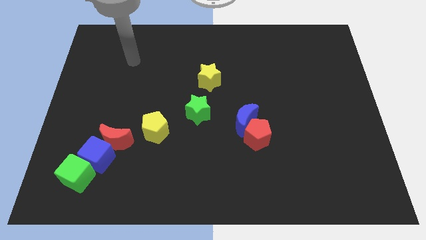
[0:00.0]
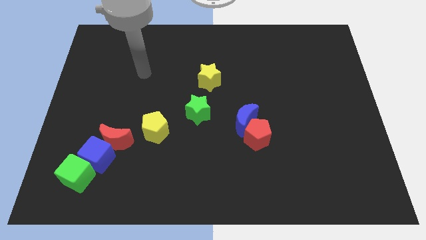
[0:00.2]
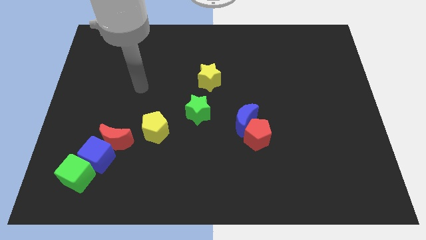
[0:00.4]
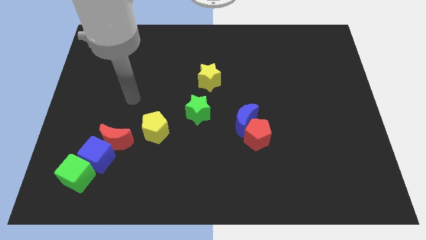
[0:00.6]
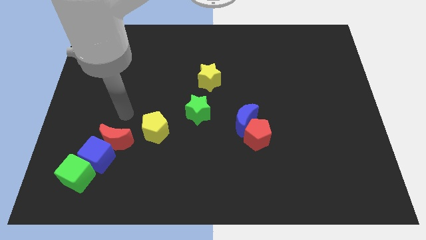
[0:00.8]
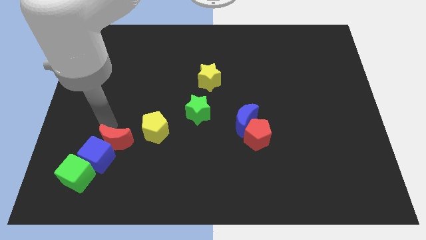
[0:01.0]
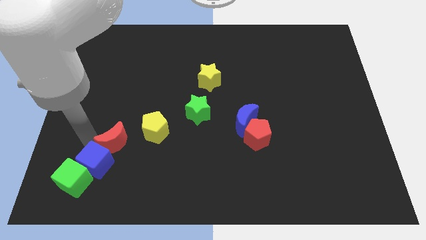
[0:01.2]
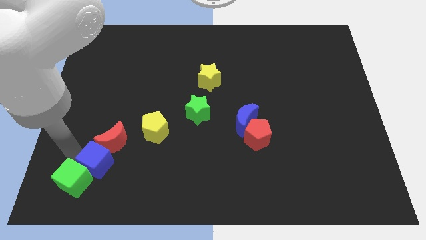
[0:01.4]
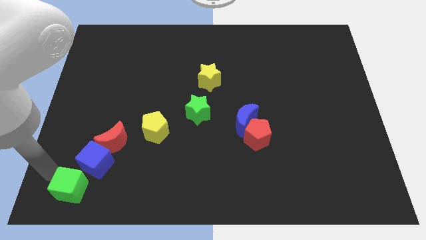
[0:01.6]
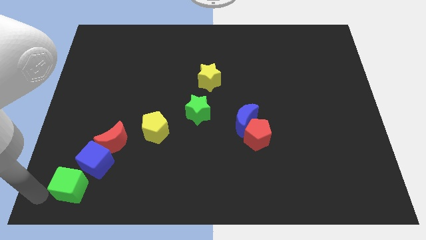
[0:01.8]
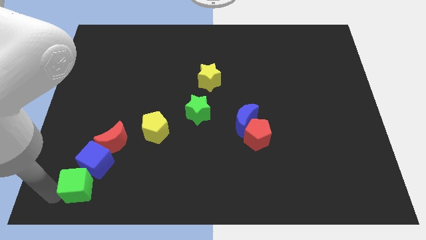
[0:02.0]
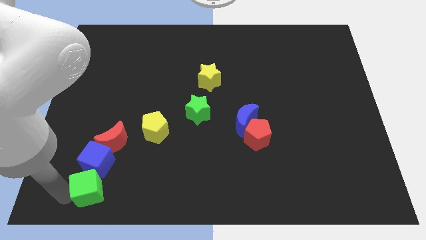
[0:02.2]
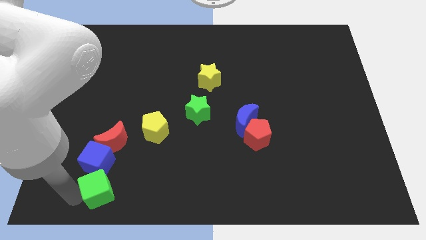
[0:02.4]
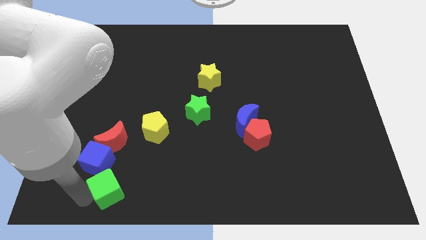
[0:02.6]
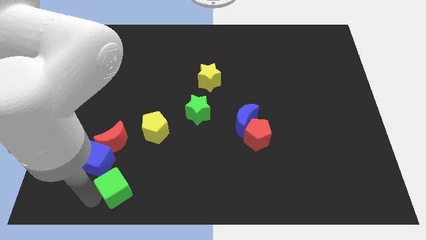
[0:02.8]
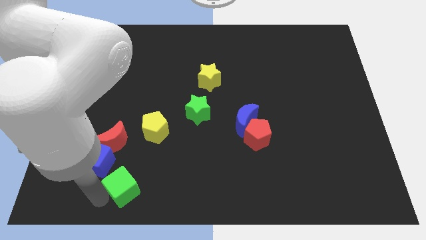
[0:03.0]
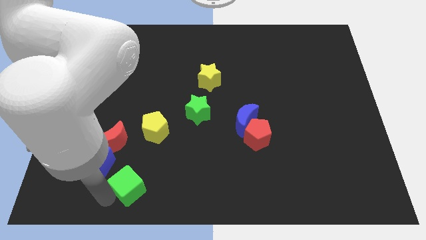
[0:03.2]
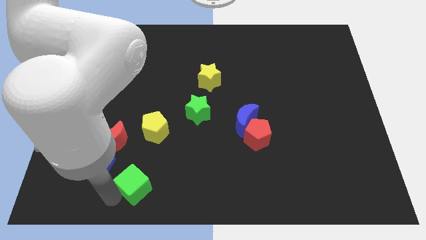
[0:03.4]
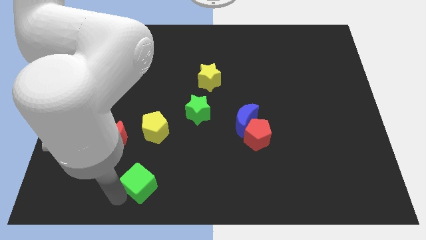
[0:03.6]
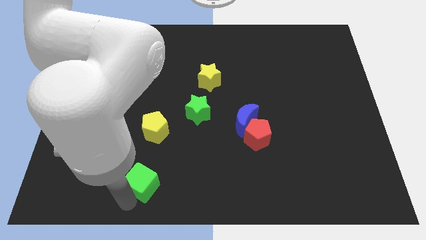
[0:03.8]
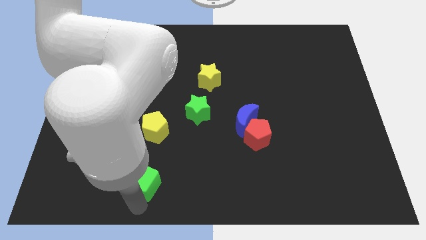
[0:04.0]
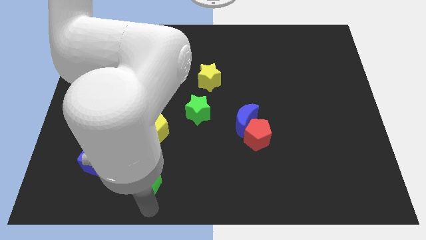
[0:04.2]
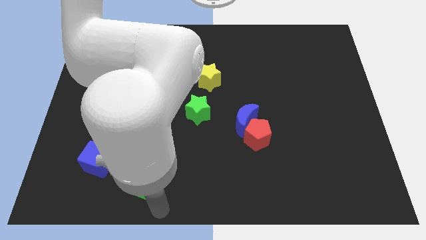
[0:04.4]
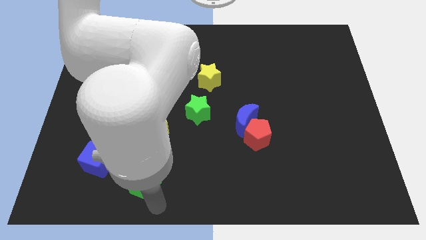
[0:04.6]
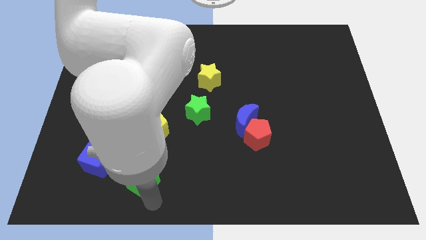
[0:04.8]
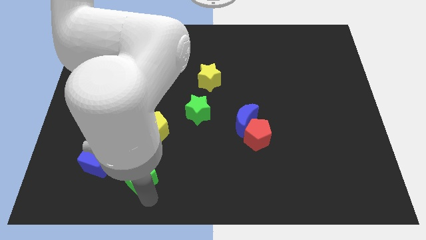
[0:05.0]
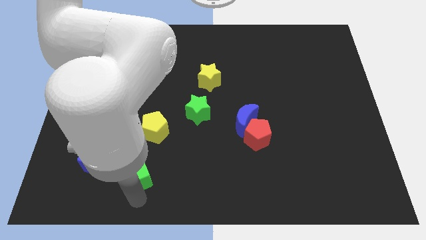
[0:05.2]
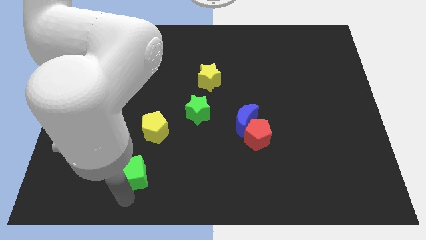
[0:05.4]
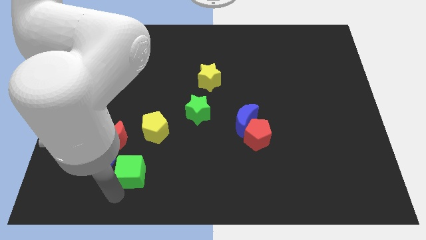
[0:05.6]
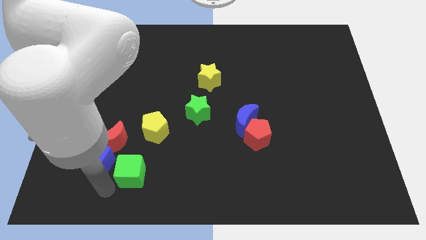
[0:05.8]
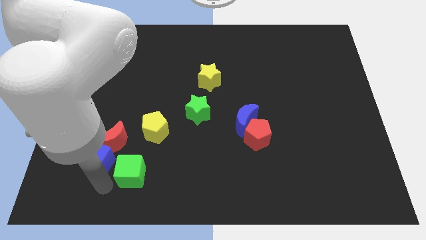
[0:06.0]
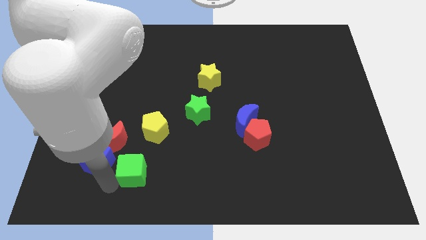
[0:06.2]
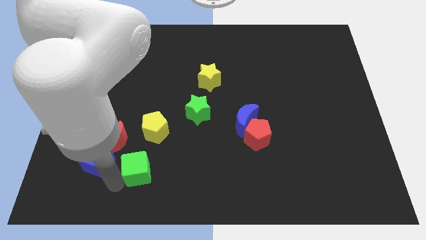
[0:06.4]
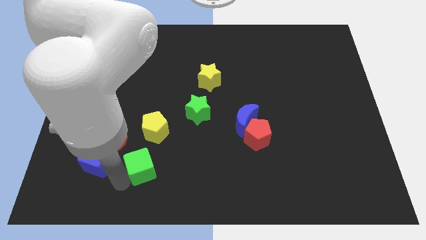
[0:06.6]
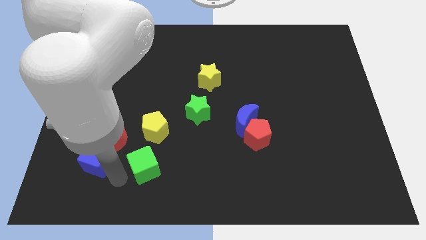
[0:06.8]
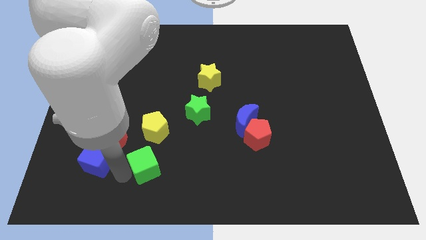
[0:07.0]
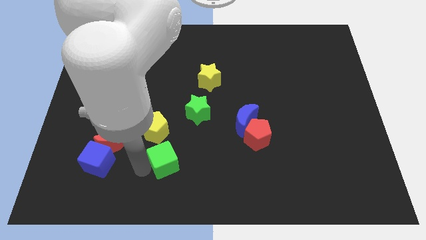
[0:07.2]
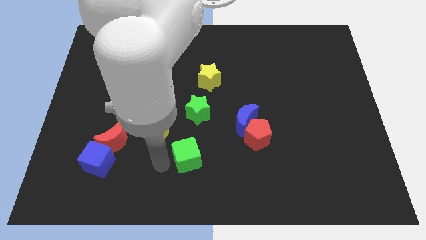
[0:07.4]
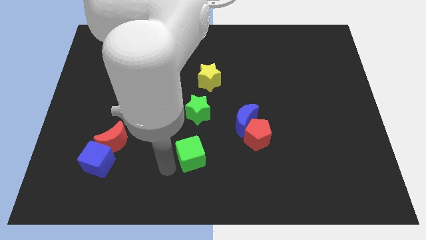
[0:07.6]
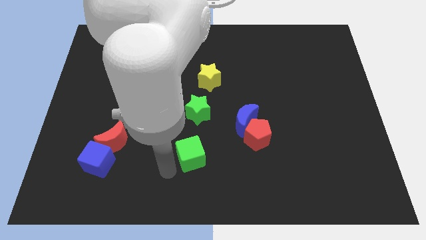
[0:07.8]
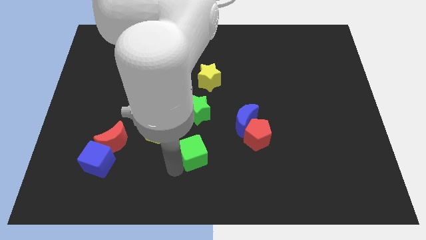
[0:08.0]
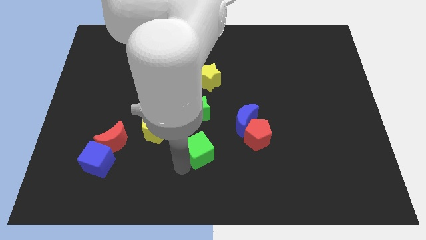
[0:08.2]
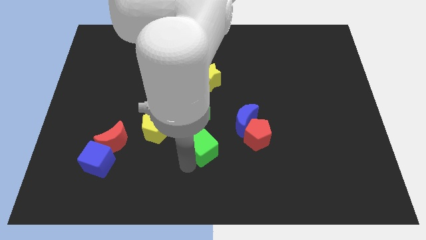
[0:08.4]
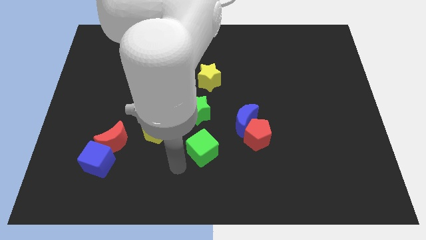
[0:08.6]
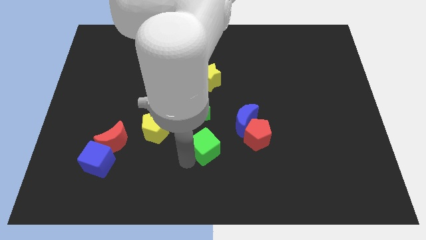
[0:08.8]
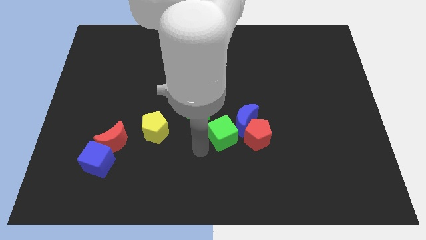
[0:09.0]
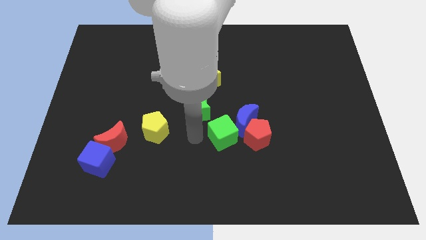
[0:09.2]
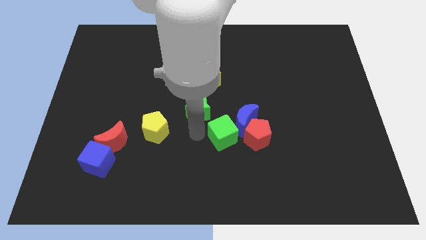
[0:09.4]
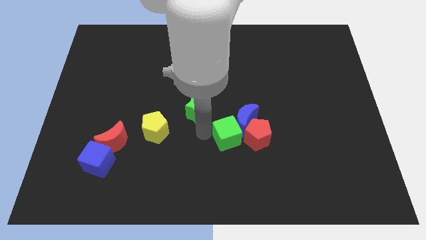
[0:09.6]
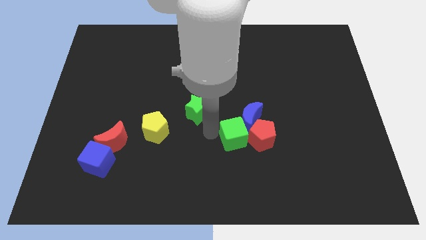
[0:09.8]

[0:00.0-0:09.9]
put the green cube to the red pentagon

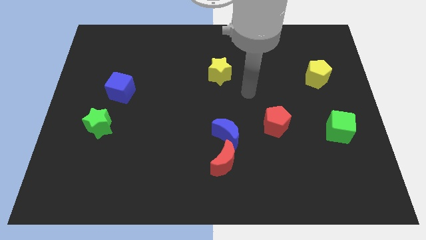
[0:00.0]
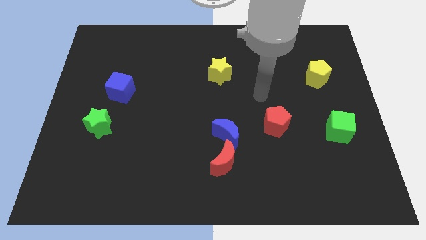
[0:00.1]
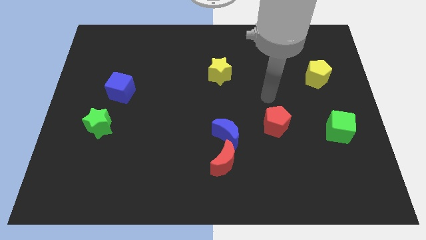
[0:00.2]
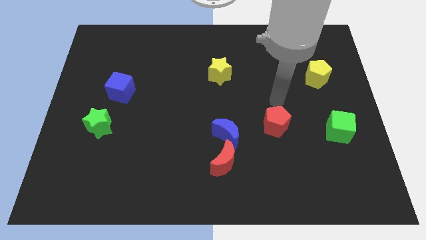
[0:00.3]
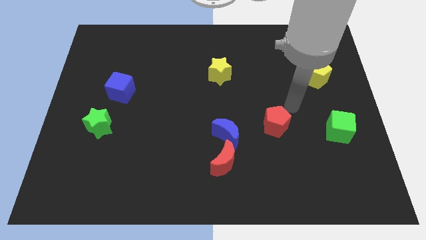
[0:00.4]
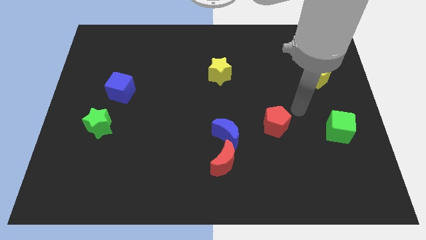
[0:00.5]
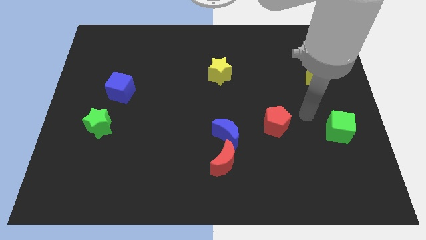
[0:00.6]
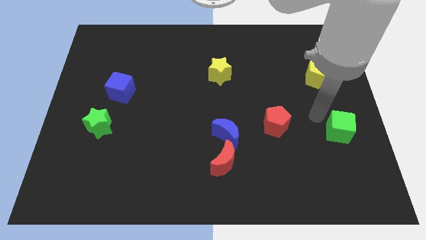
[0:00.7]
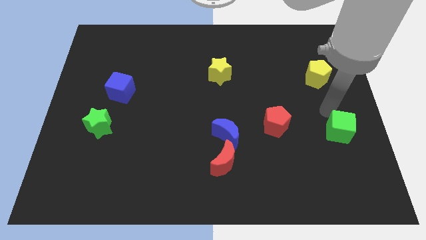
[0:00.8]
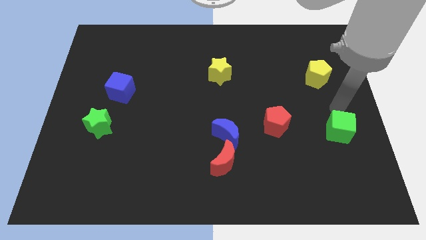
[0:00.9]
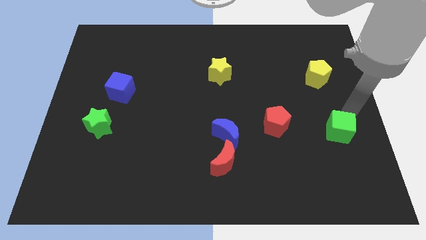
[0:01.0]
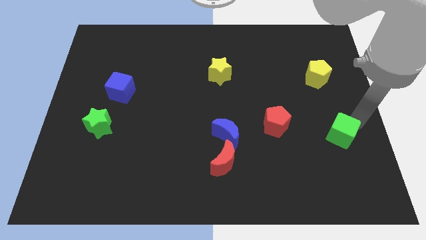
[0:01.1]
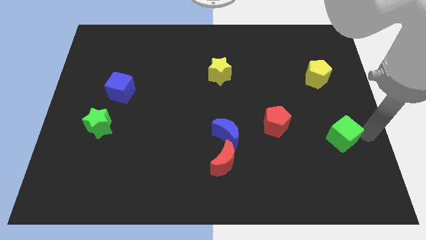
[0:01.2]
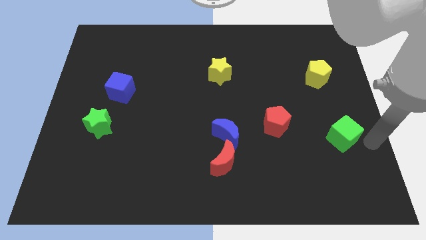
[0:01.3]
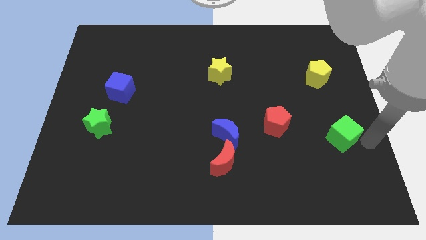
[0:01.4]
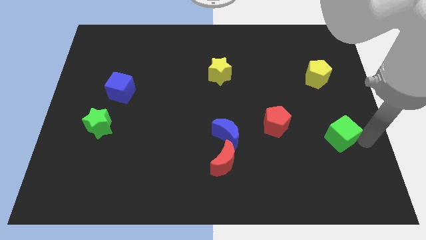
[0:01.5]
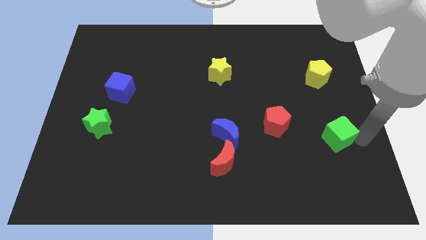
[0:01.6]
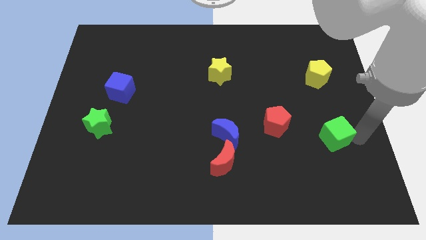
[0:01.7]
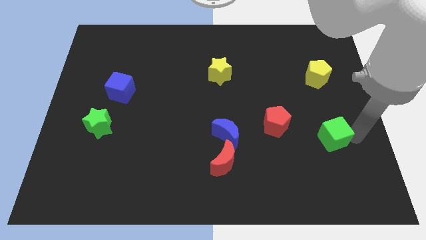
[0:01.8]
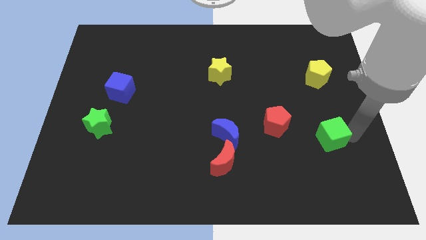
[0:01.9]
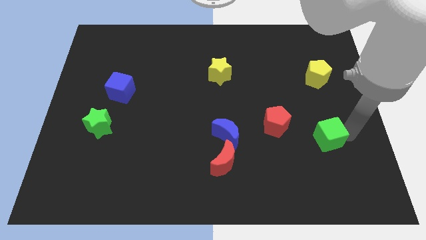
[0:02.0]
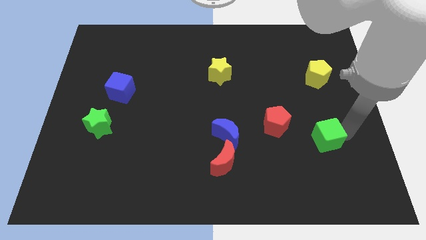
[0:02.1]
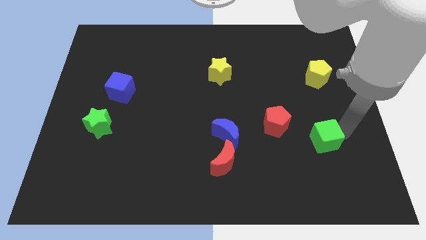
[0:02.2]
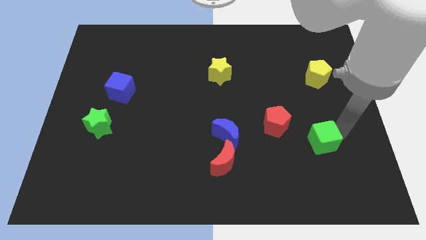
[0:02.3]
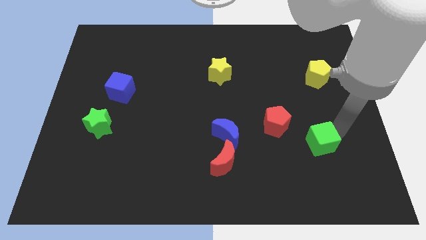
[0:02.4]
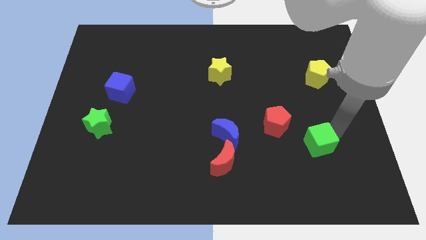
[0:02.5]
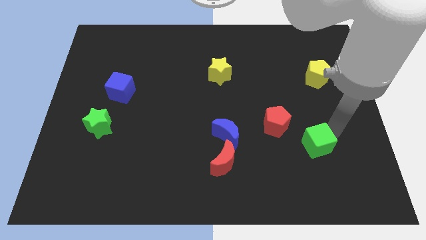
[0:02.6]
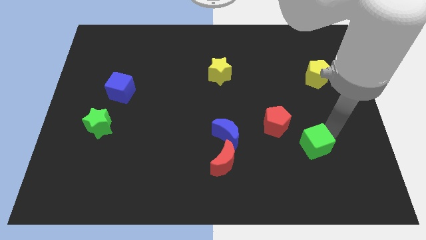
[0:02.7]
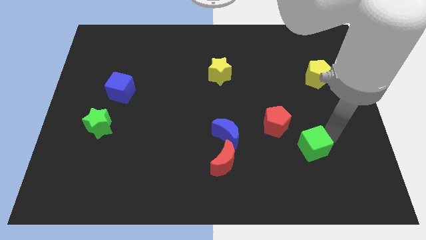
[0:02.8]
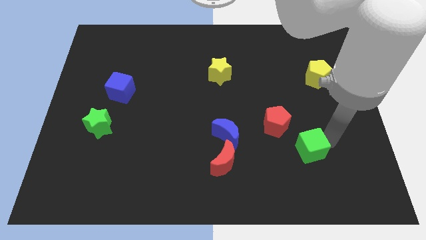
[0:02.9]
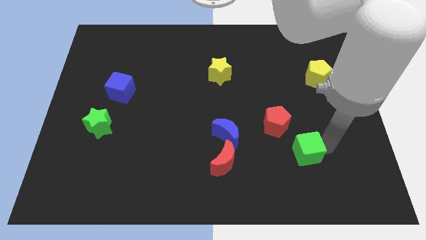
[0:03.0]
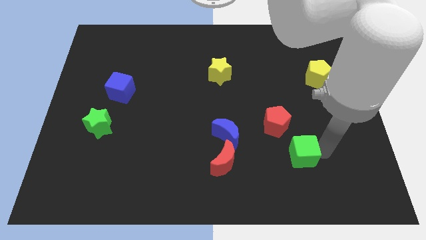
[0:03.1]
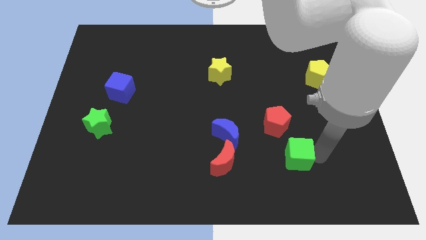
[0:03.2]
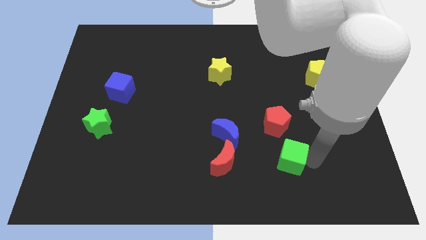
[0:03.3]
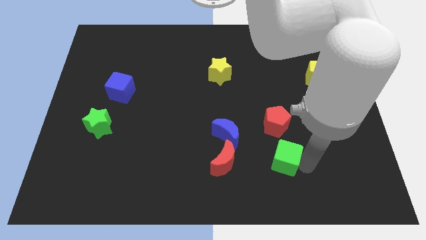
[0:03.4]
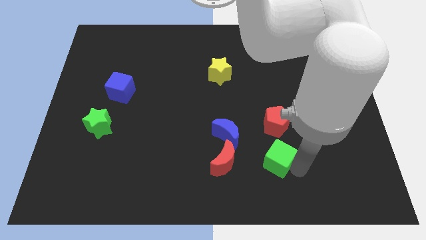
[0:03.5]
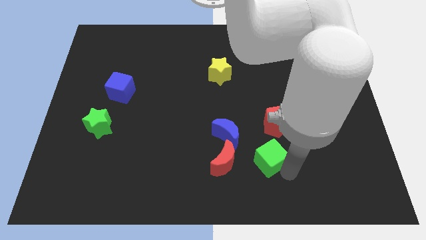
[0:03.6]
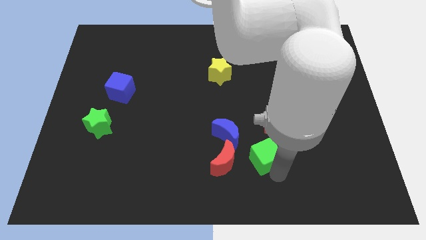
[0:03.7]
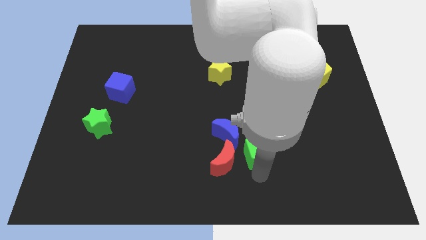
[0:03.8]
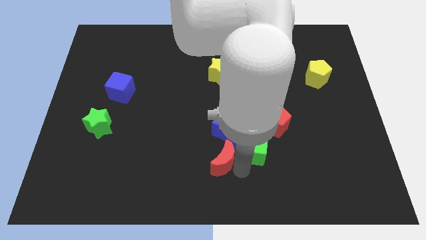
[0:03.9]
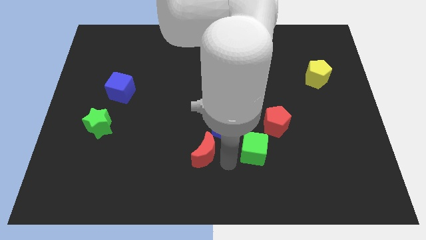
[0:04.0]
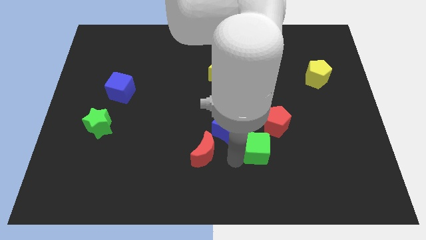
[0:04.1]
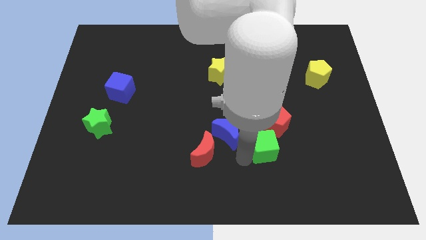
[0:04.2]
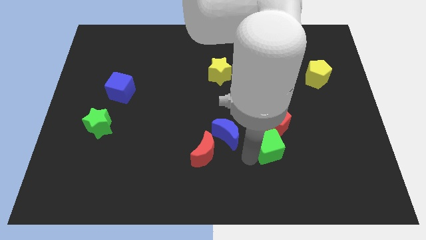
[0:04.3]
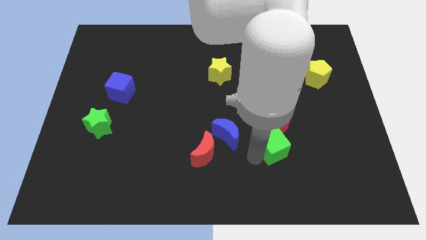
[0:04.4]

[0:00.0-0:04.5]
move the green cube towards the red pentagon
